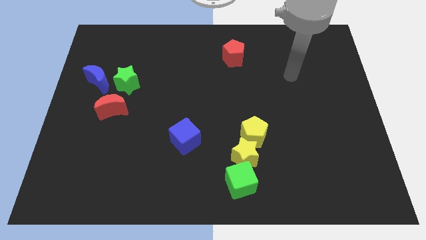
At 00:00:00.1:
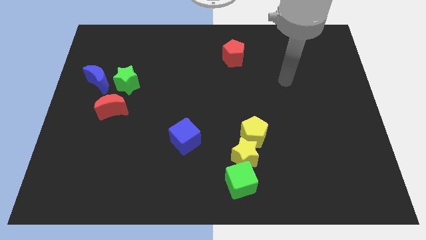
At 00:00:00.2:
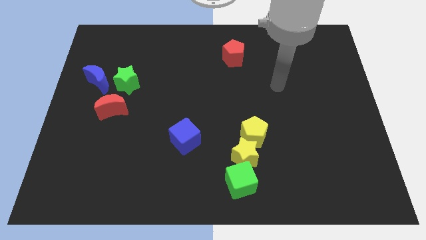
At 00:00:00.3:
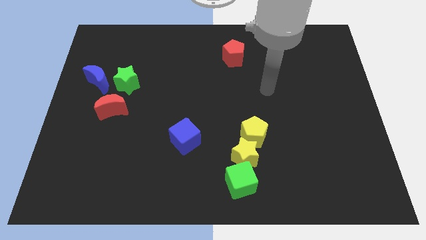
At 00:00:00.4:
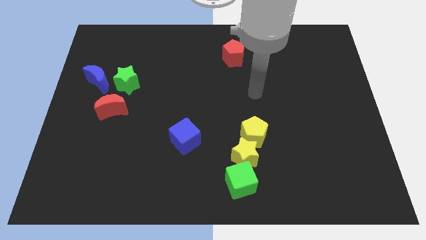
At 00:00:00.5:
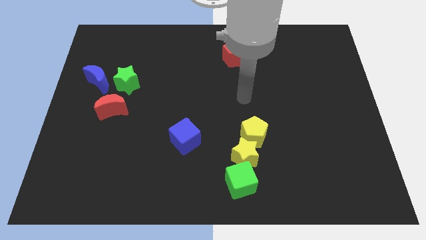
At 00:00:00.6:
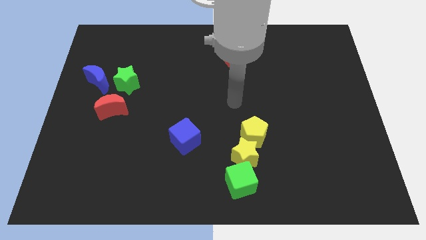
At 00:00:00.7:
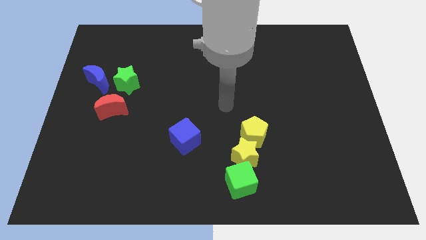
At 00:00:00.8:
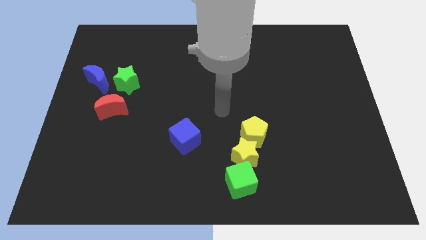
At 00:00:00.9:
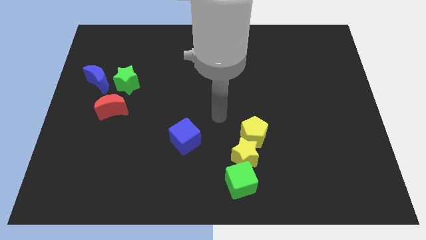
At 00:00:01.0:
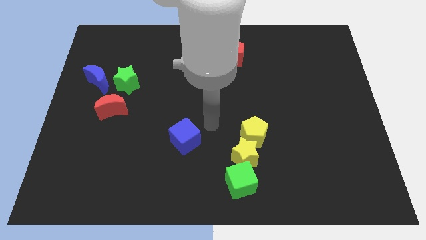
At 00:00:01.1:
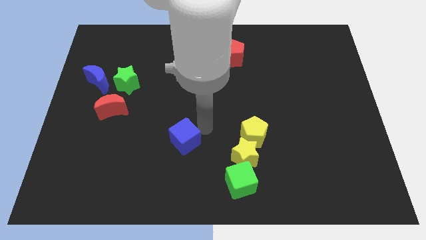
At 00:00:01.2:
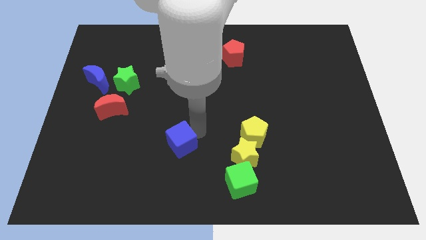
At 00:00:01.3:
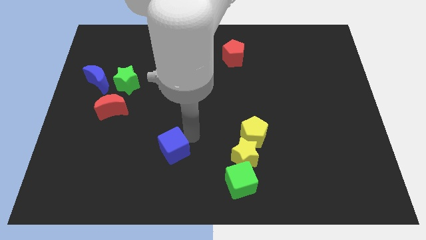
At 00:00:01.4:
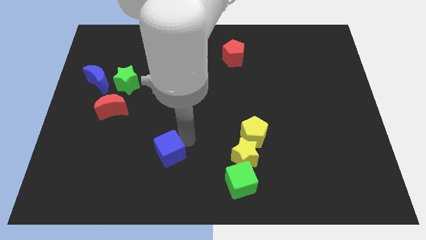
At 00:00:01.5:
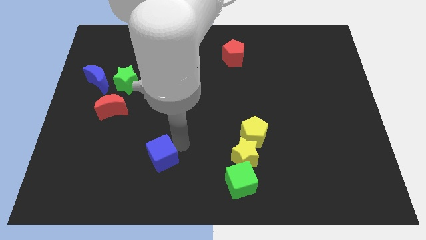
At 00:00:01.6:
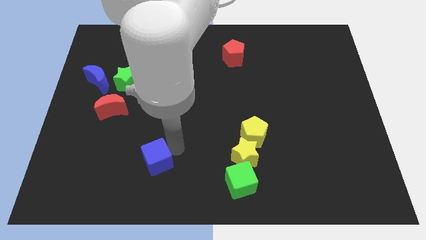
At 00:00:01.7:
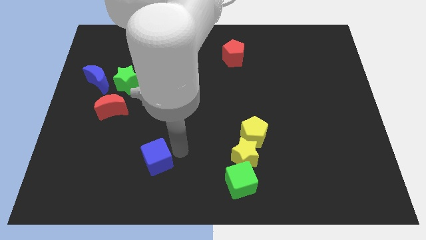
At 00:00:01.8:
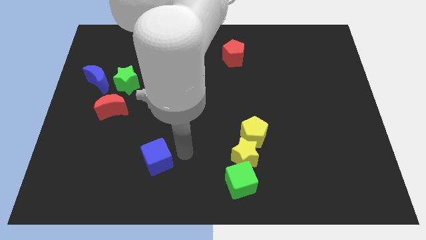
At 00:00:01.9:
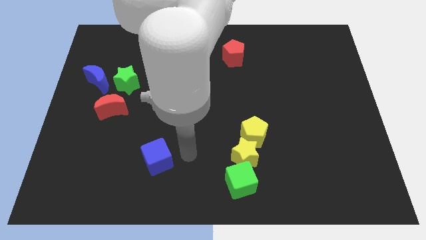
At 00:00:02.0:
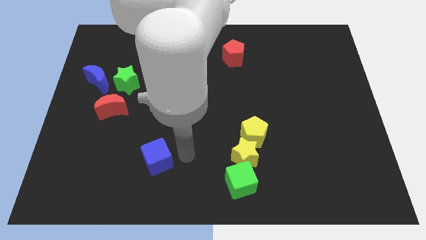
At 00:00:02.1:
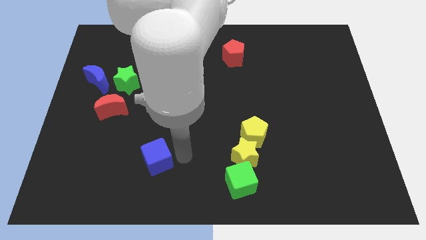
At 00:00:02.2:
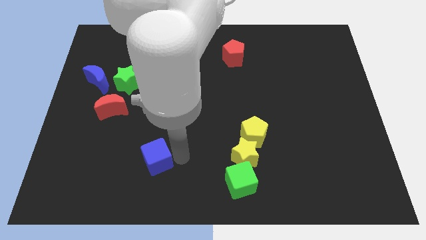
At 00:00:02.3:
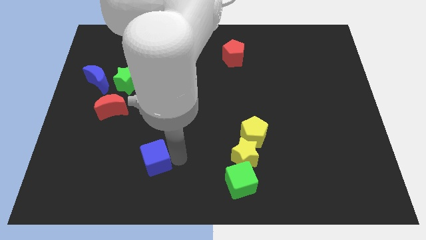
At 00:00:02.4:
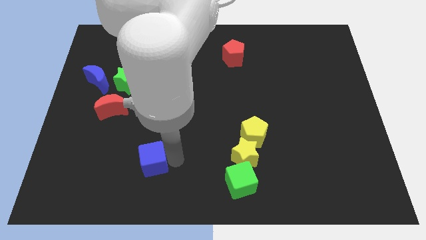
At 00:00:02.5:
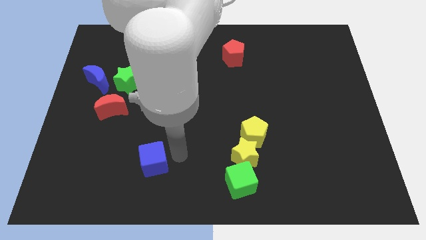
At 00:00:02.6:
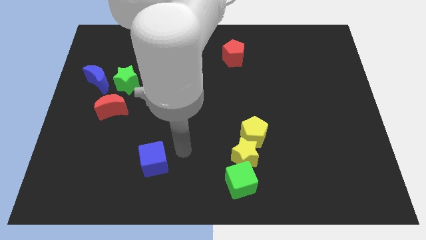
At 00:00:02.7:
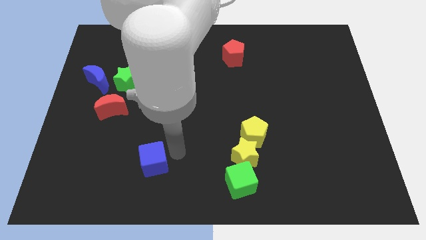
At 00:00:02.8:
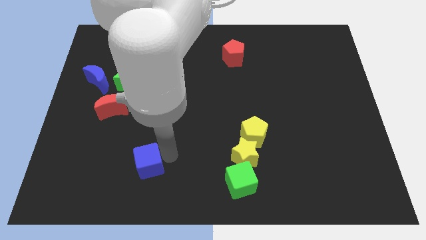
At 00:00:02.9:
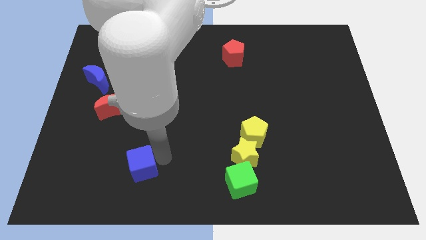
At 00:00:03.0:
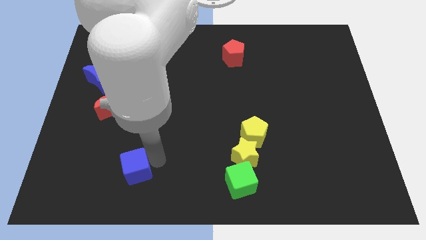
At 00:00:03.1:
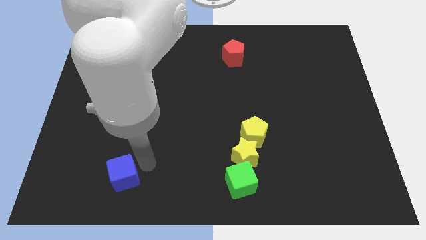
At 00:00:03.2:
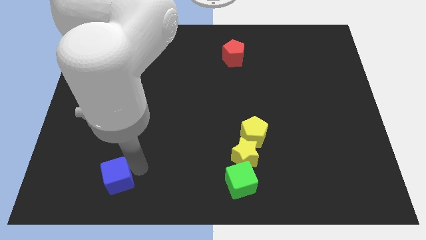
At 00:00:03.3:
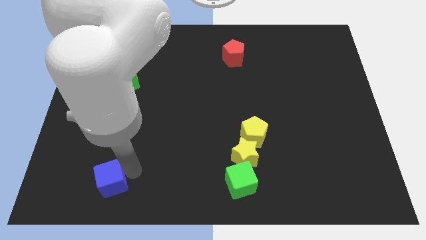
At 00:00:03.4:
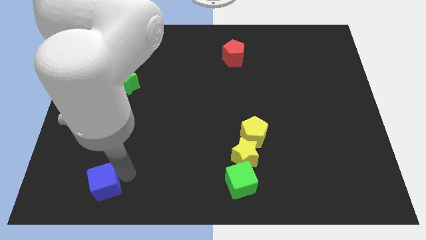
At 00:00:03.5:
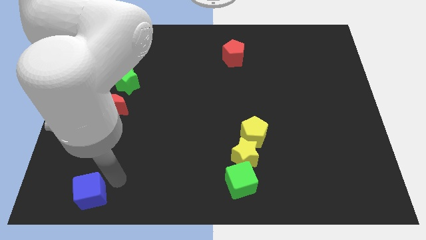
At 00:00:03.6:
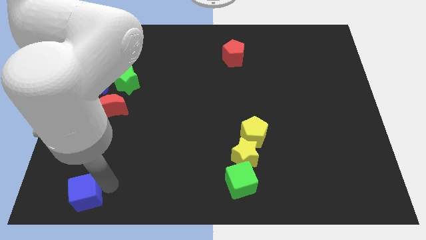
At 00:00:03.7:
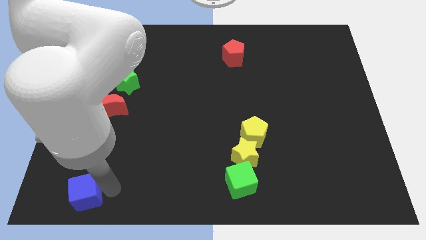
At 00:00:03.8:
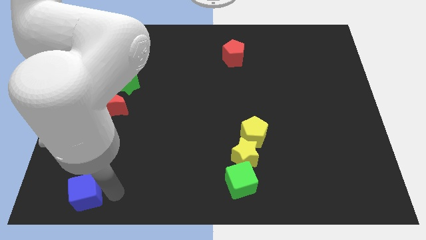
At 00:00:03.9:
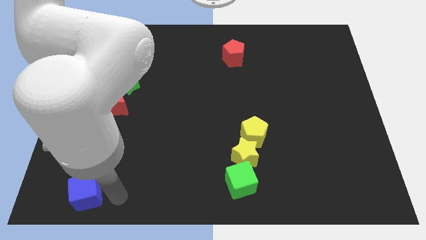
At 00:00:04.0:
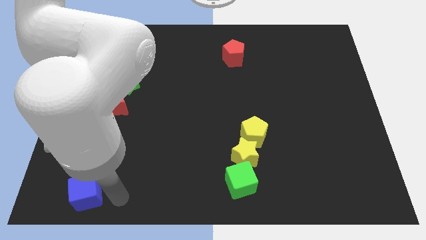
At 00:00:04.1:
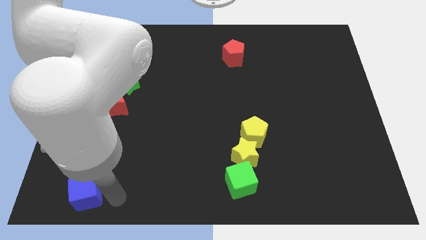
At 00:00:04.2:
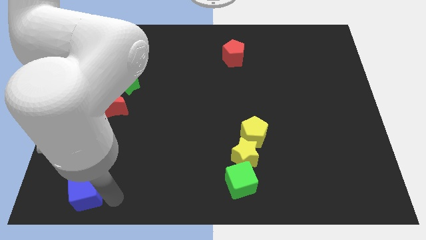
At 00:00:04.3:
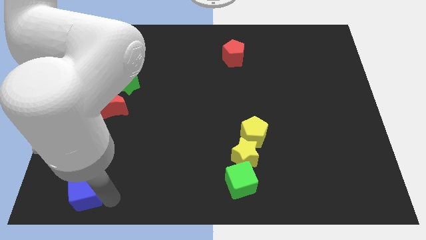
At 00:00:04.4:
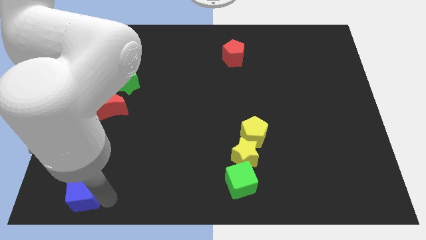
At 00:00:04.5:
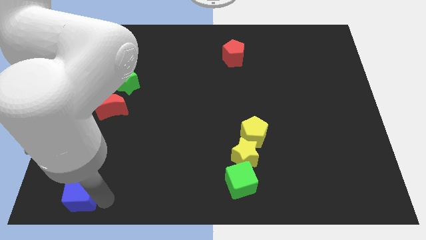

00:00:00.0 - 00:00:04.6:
slide the blue cube to the bottom left of the board

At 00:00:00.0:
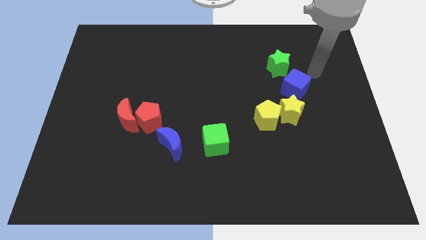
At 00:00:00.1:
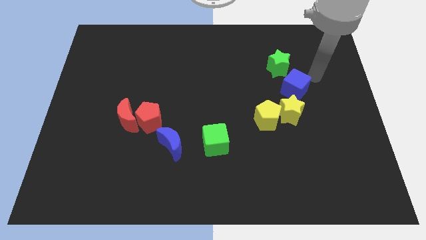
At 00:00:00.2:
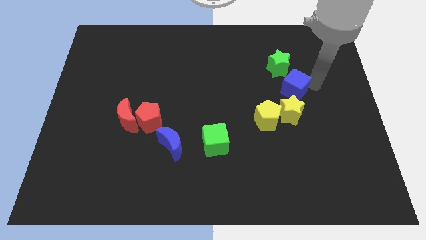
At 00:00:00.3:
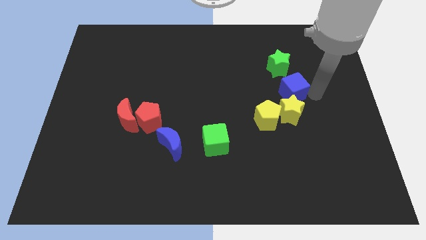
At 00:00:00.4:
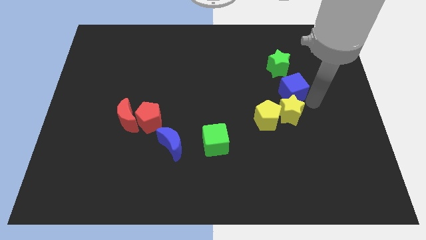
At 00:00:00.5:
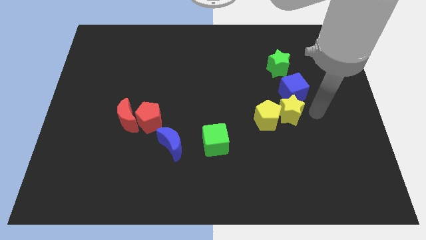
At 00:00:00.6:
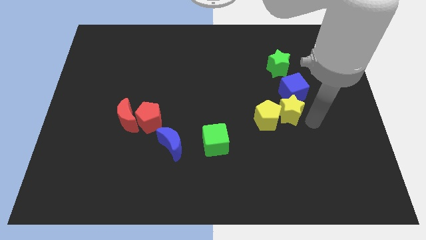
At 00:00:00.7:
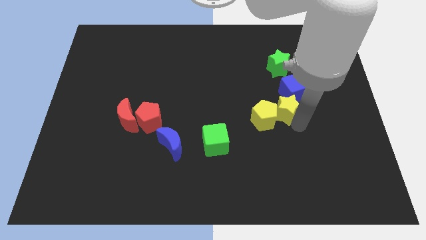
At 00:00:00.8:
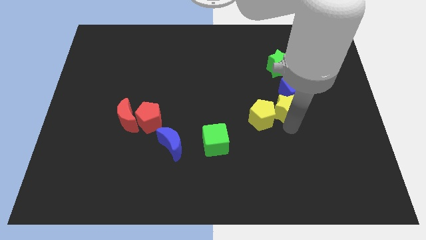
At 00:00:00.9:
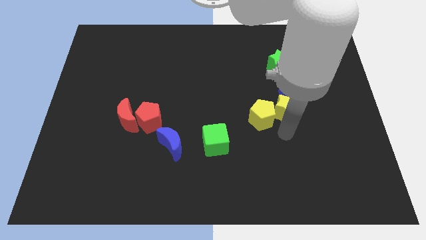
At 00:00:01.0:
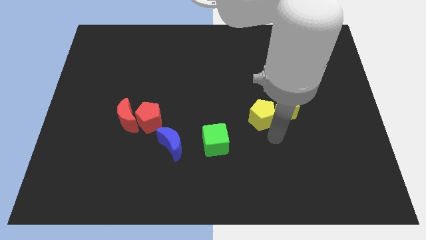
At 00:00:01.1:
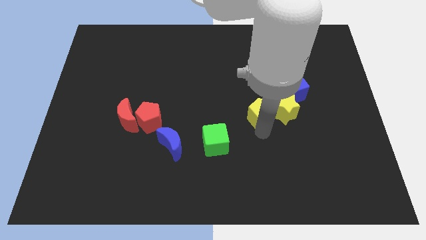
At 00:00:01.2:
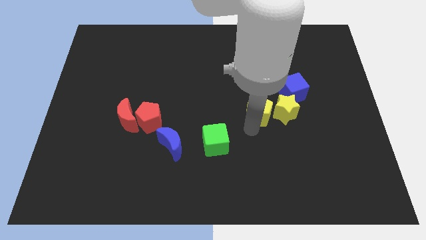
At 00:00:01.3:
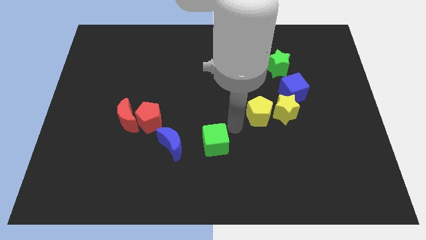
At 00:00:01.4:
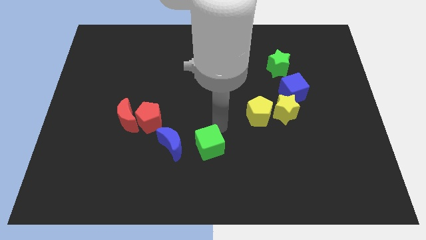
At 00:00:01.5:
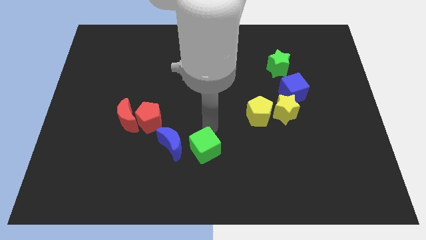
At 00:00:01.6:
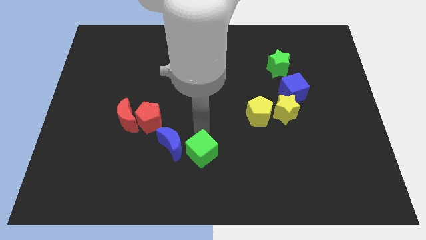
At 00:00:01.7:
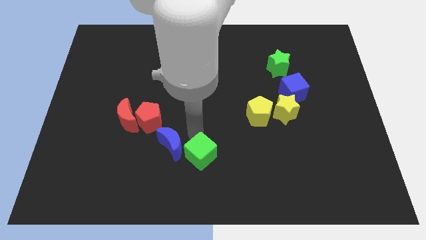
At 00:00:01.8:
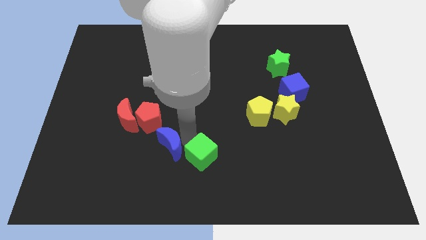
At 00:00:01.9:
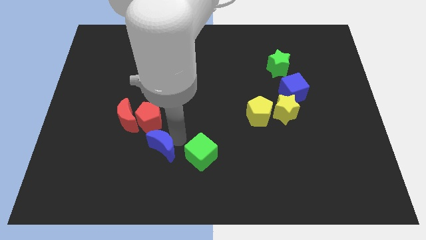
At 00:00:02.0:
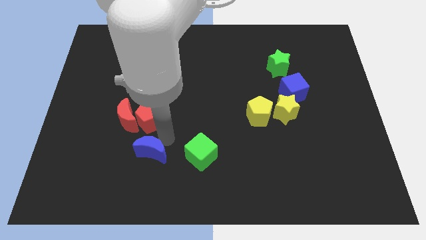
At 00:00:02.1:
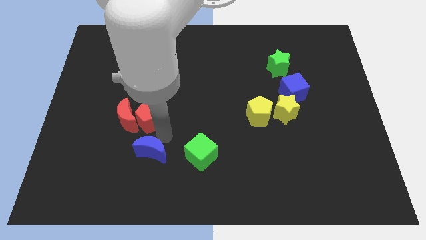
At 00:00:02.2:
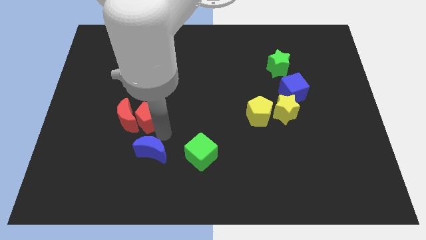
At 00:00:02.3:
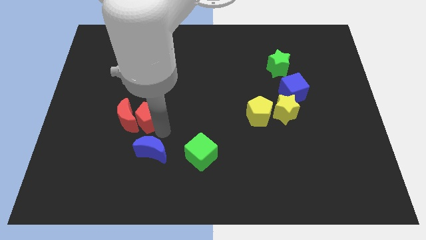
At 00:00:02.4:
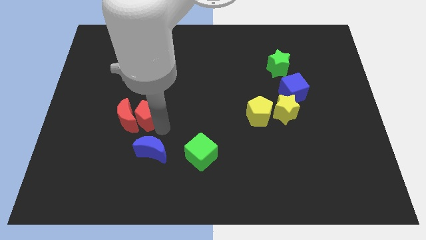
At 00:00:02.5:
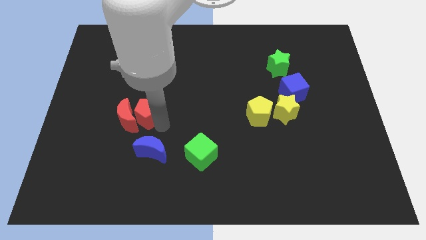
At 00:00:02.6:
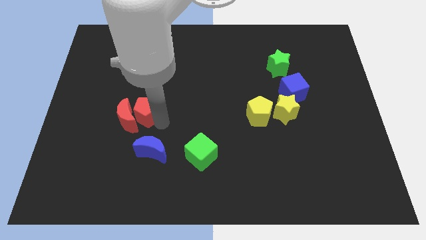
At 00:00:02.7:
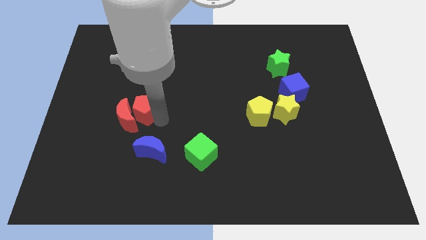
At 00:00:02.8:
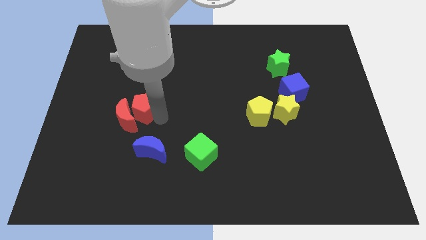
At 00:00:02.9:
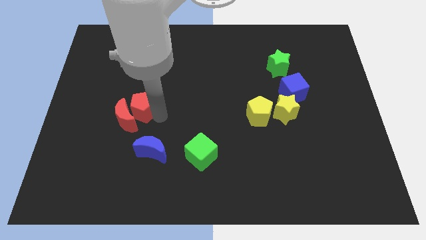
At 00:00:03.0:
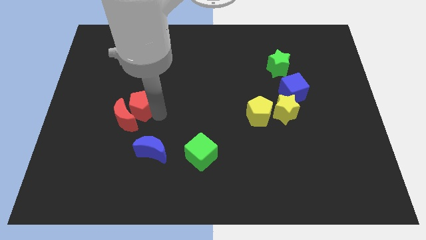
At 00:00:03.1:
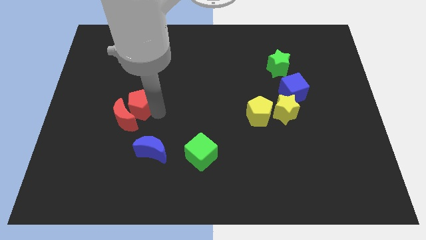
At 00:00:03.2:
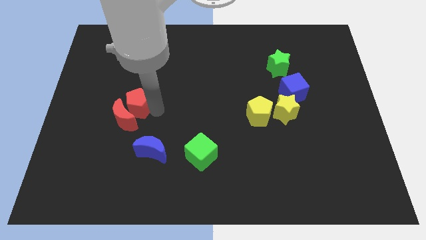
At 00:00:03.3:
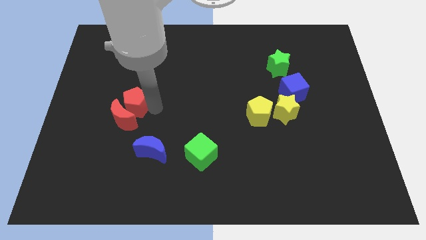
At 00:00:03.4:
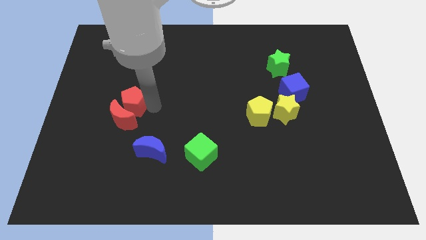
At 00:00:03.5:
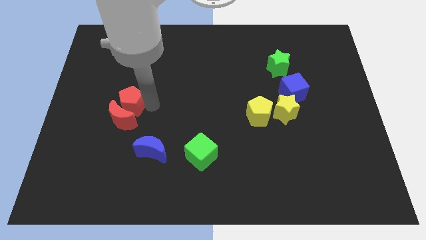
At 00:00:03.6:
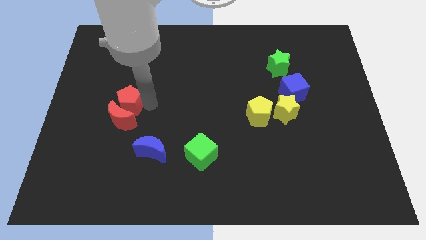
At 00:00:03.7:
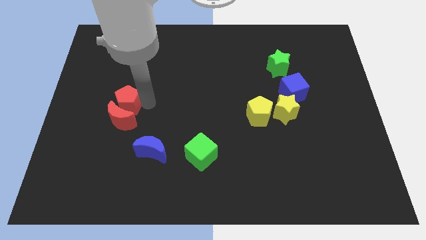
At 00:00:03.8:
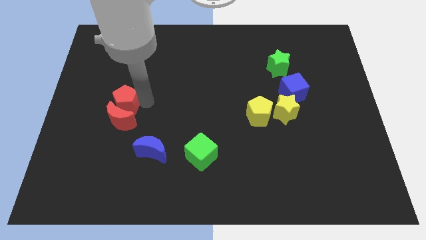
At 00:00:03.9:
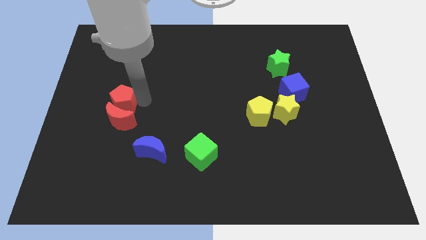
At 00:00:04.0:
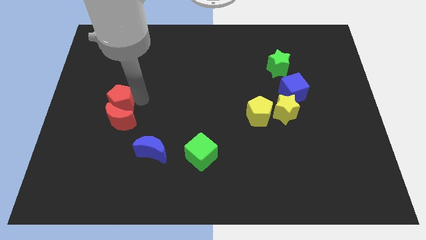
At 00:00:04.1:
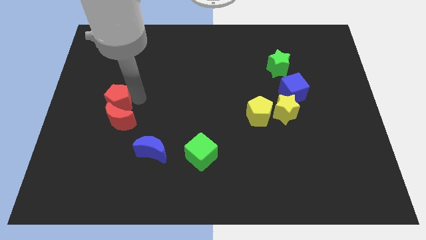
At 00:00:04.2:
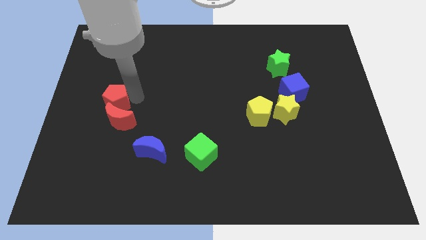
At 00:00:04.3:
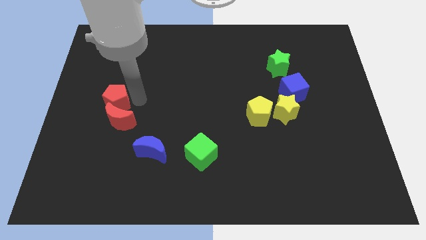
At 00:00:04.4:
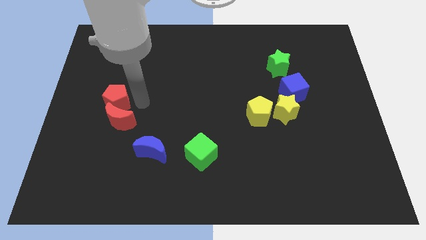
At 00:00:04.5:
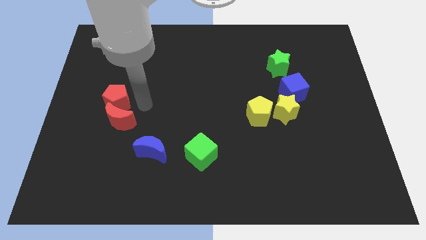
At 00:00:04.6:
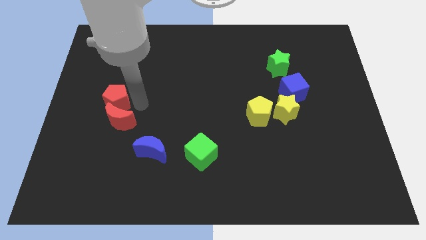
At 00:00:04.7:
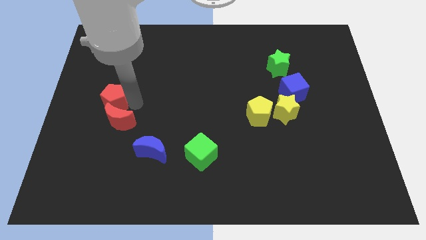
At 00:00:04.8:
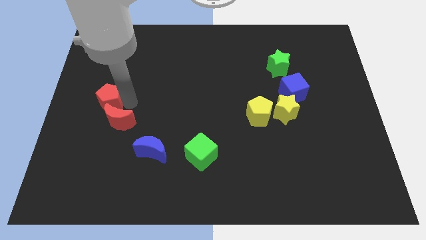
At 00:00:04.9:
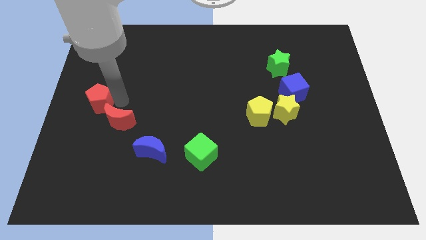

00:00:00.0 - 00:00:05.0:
move the red pentagon to the left side
